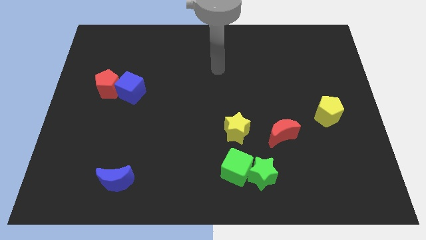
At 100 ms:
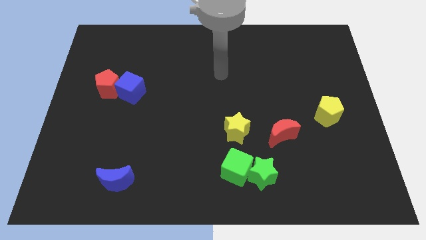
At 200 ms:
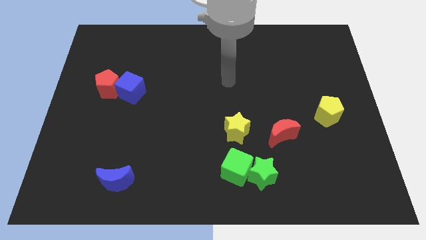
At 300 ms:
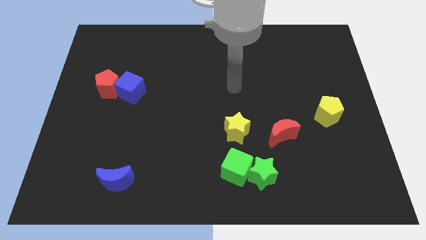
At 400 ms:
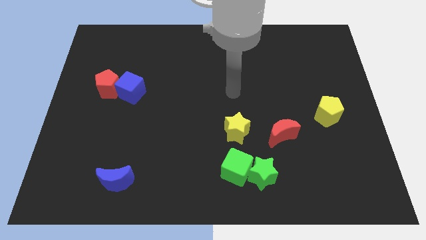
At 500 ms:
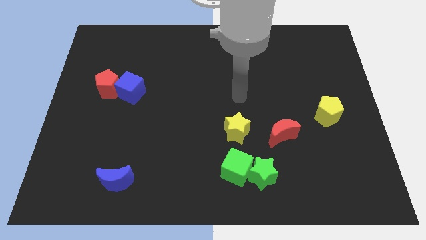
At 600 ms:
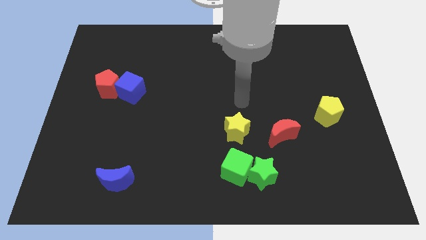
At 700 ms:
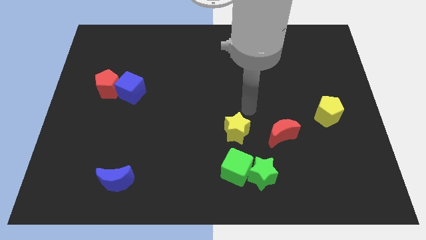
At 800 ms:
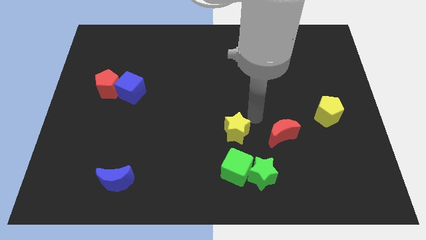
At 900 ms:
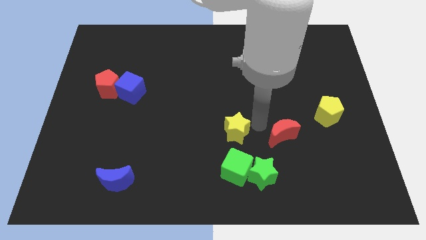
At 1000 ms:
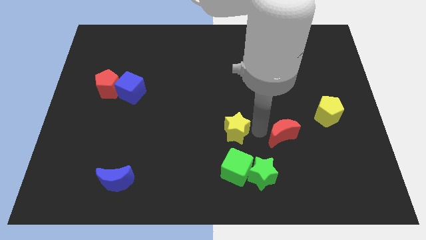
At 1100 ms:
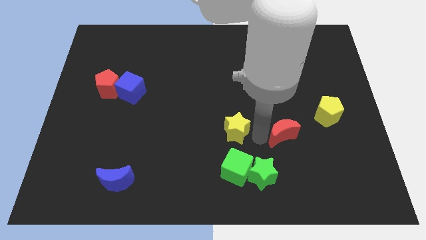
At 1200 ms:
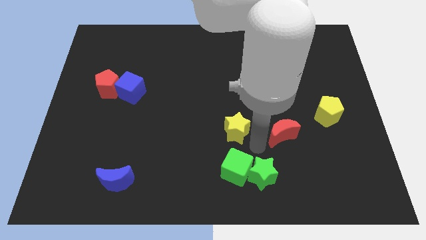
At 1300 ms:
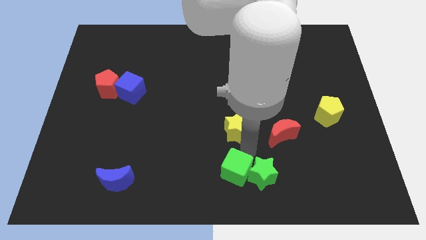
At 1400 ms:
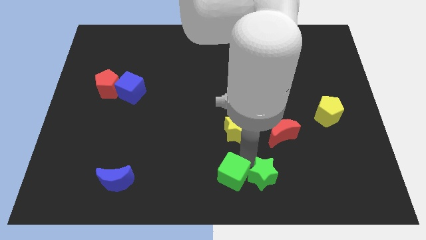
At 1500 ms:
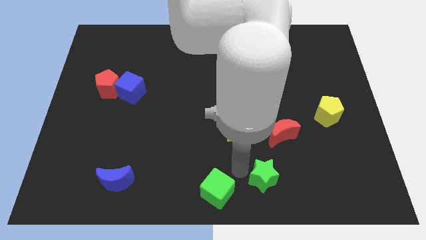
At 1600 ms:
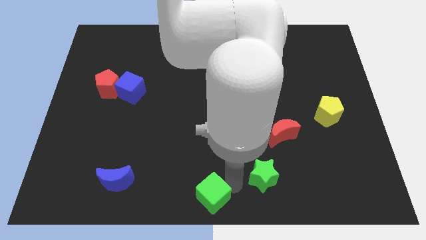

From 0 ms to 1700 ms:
move the green star away from the green cube

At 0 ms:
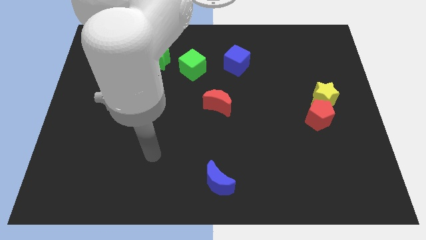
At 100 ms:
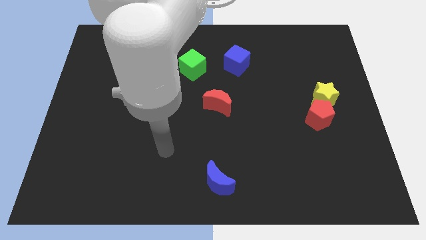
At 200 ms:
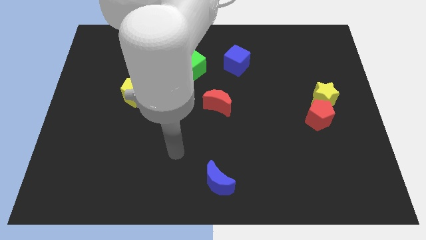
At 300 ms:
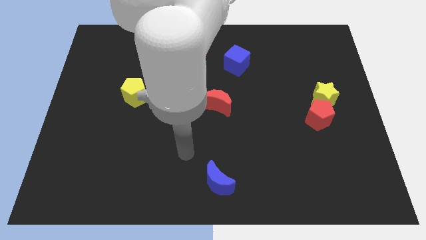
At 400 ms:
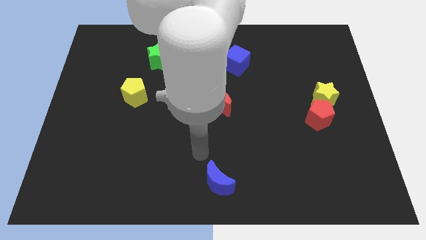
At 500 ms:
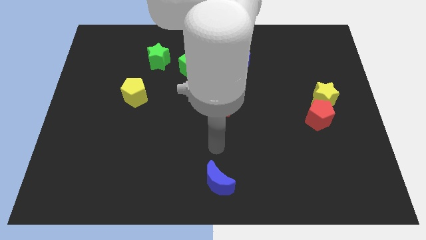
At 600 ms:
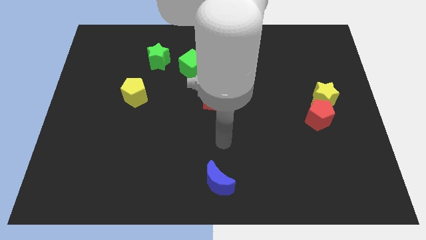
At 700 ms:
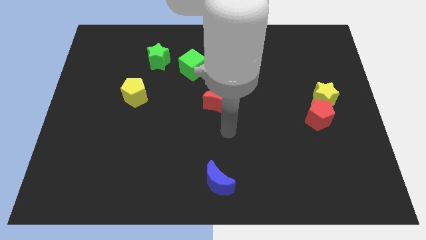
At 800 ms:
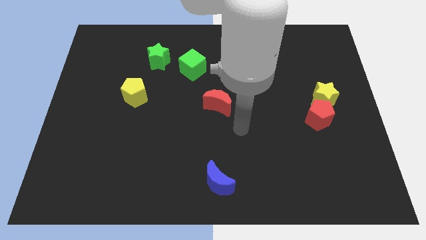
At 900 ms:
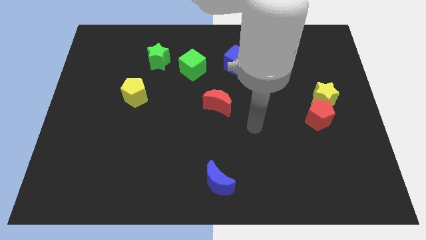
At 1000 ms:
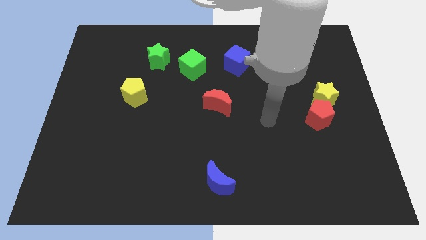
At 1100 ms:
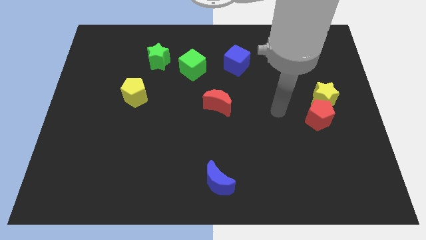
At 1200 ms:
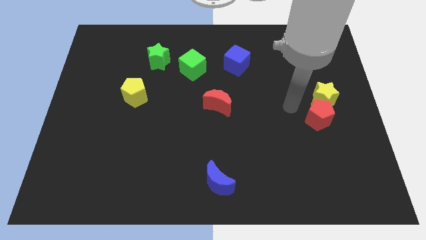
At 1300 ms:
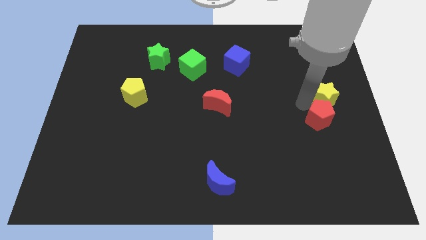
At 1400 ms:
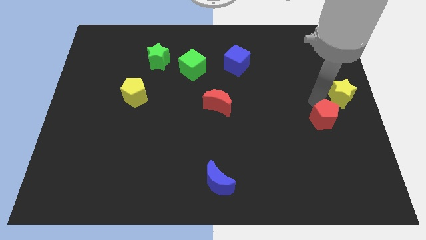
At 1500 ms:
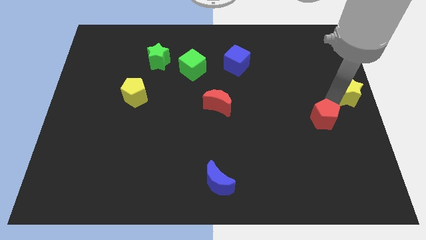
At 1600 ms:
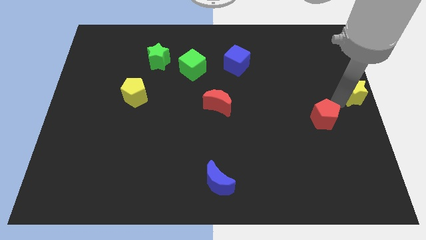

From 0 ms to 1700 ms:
move the red pentagon away from the yellow star

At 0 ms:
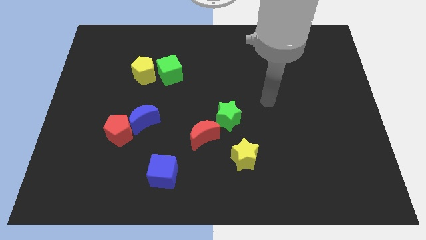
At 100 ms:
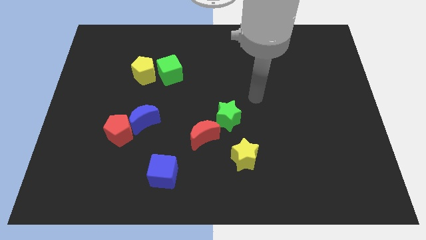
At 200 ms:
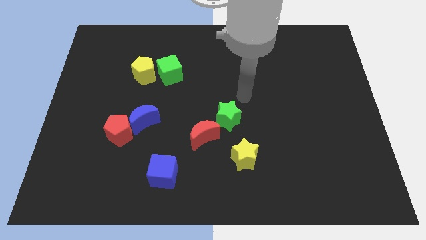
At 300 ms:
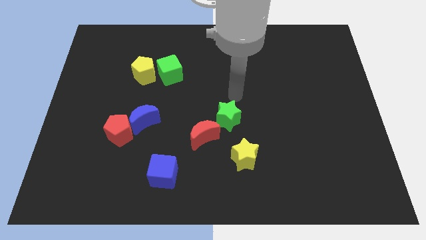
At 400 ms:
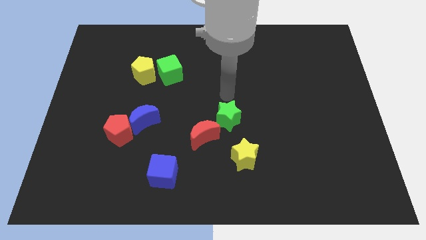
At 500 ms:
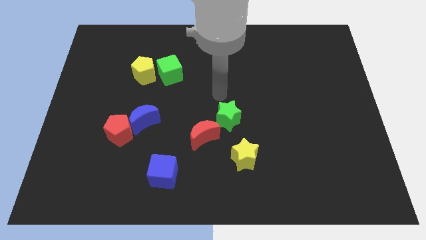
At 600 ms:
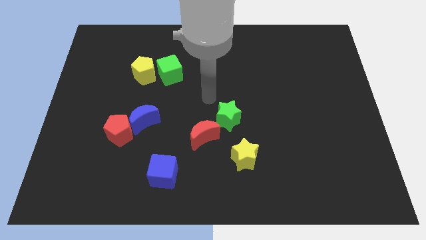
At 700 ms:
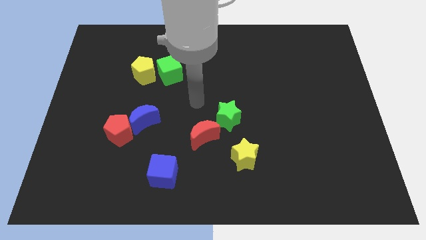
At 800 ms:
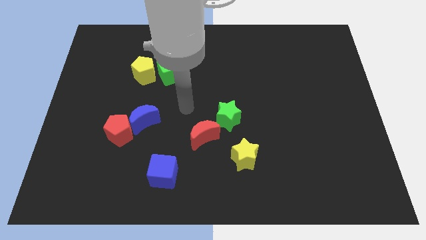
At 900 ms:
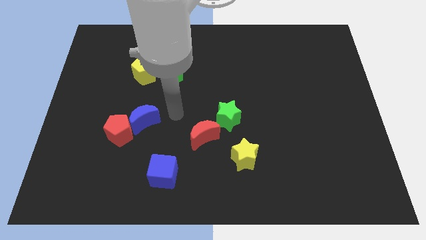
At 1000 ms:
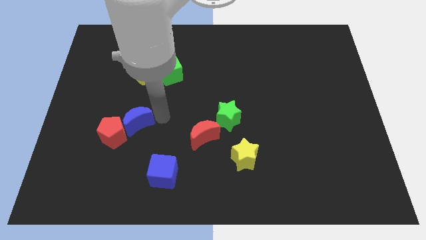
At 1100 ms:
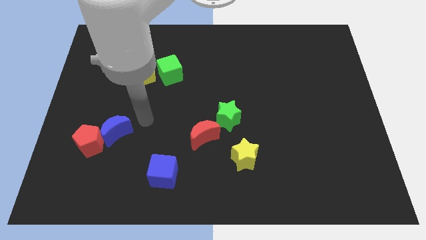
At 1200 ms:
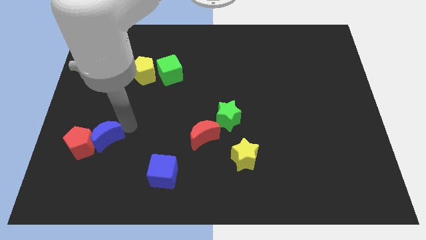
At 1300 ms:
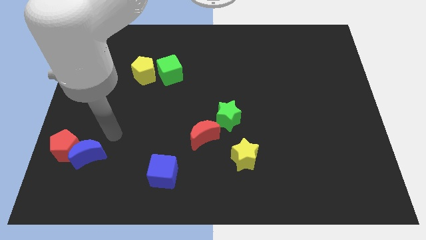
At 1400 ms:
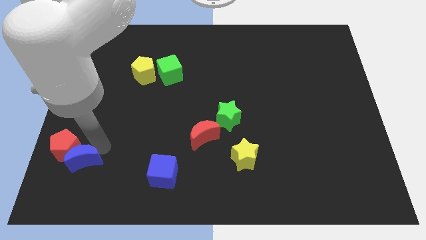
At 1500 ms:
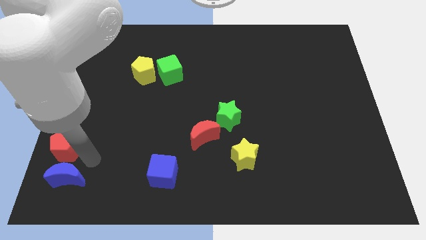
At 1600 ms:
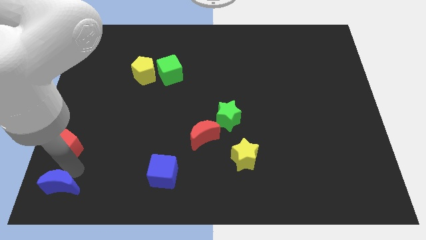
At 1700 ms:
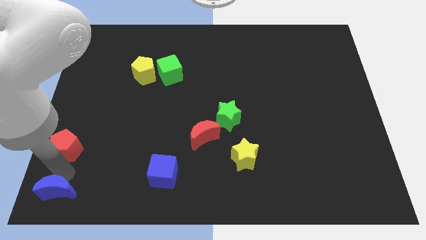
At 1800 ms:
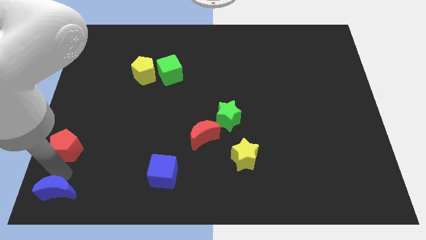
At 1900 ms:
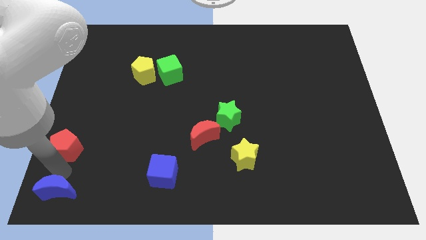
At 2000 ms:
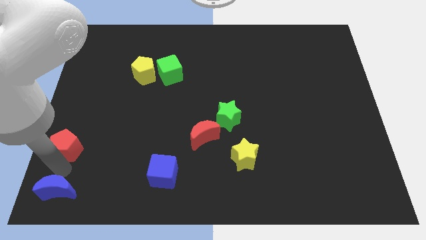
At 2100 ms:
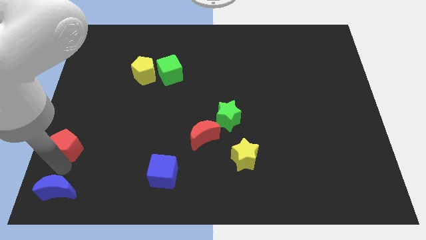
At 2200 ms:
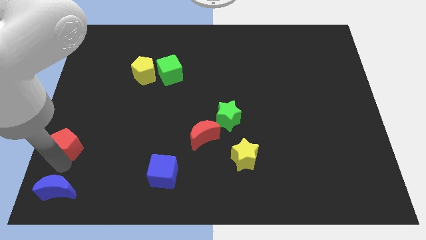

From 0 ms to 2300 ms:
separate the red pentagon from the blue moon

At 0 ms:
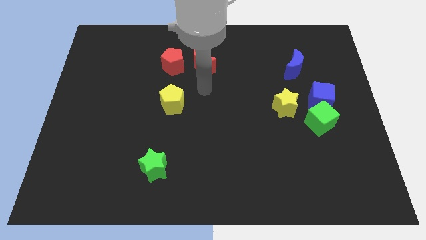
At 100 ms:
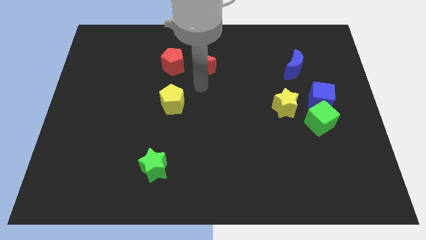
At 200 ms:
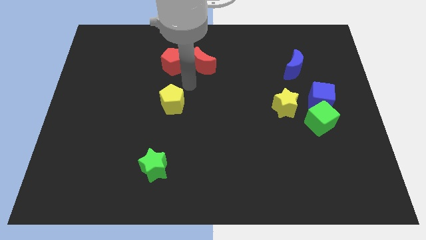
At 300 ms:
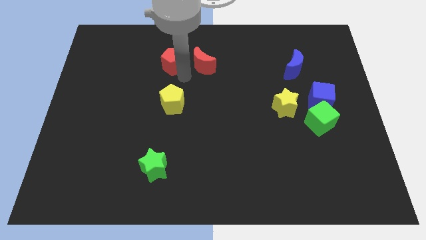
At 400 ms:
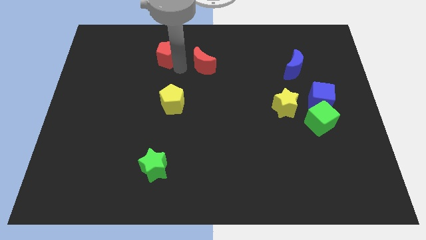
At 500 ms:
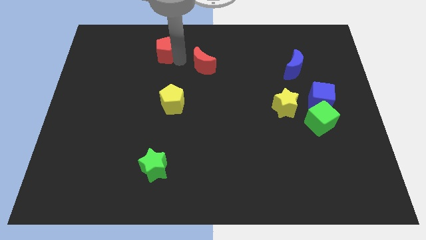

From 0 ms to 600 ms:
separate the red moon from the red pentagon

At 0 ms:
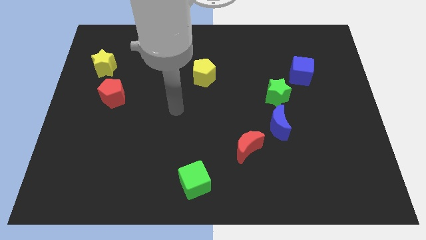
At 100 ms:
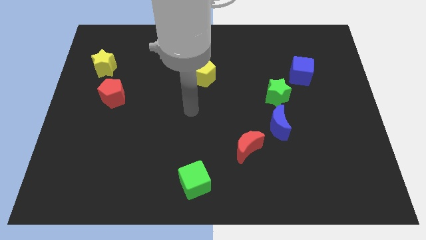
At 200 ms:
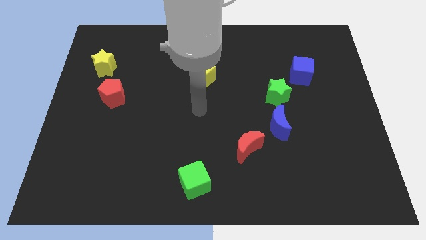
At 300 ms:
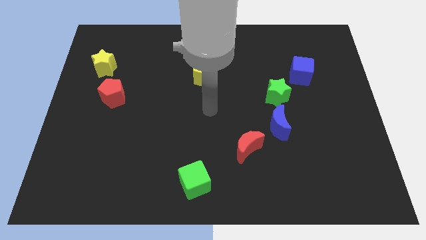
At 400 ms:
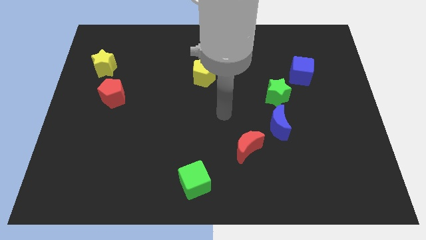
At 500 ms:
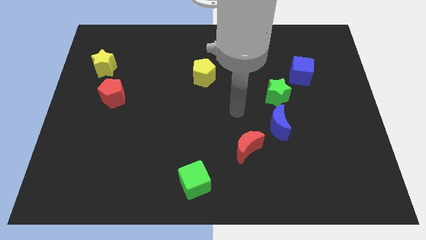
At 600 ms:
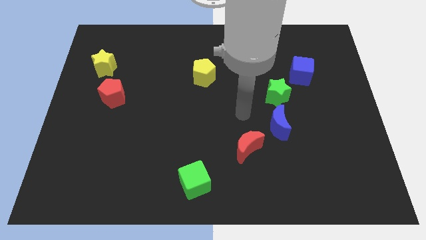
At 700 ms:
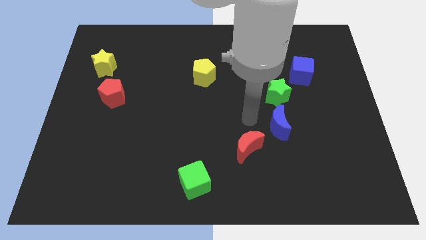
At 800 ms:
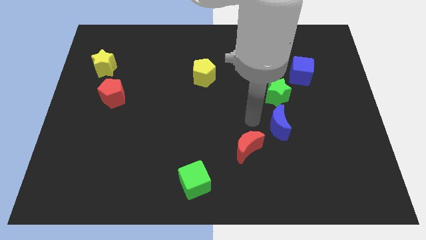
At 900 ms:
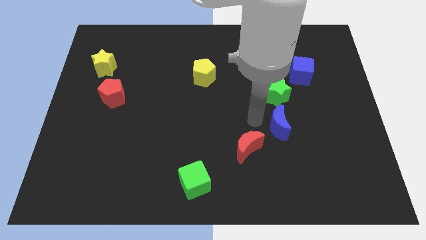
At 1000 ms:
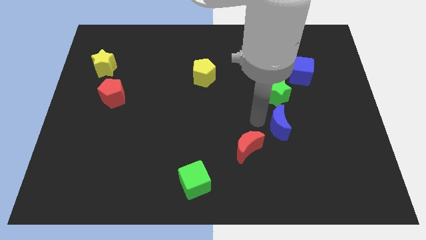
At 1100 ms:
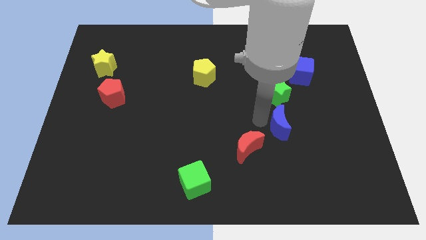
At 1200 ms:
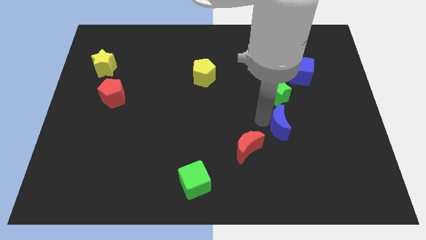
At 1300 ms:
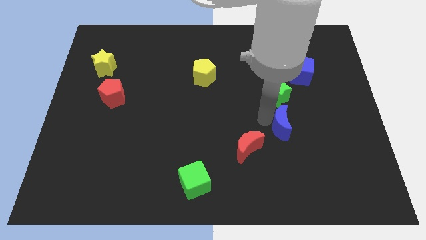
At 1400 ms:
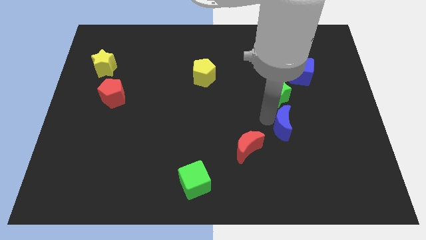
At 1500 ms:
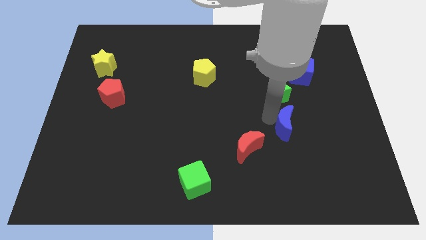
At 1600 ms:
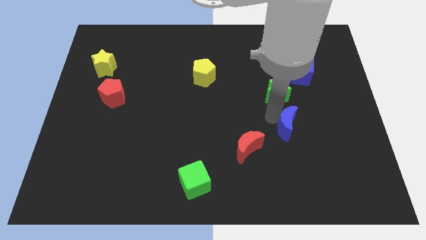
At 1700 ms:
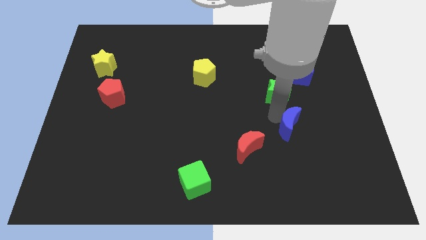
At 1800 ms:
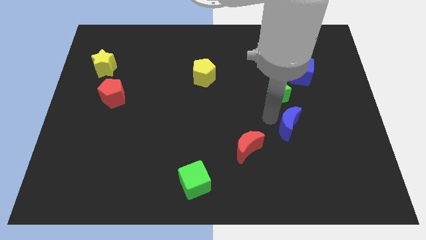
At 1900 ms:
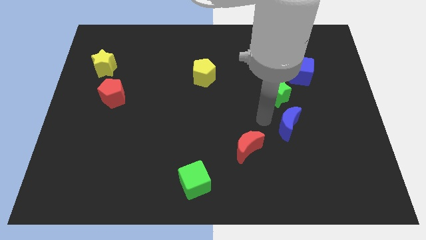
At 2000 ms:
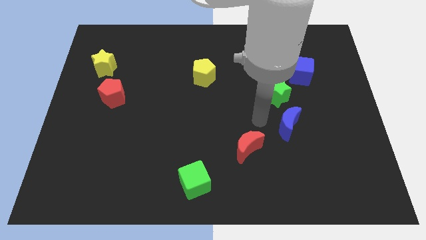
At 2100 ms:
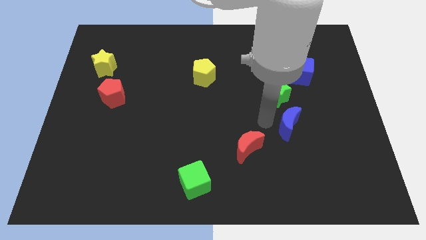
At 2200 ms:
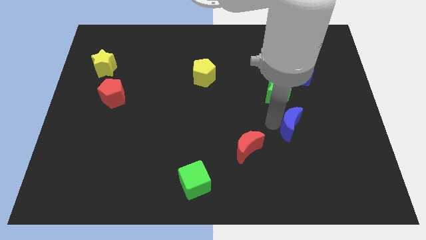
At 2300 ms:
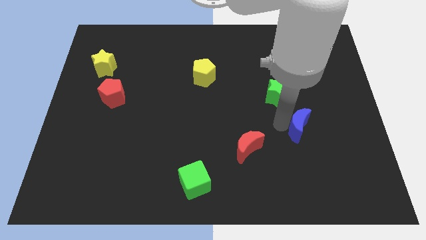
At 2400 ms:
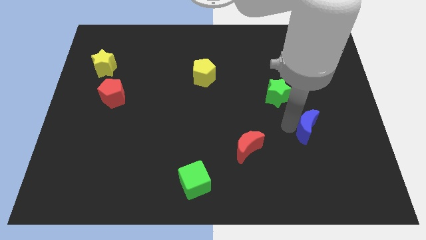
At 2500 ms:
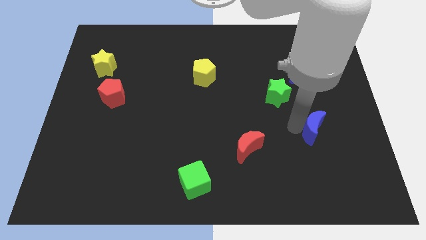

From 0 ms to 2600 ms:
separate the blue moon from the green star and red moon

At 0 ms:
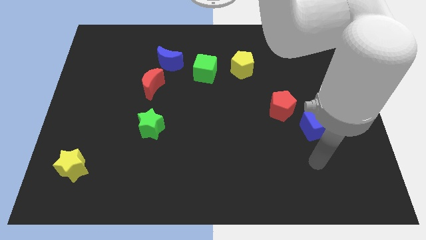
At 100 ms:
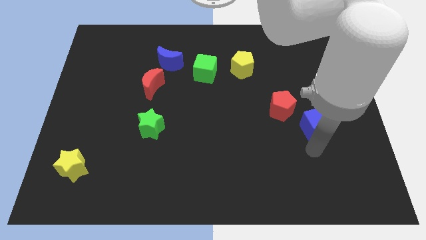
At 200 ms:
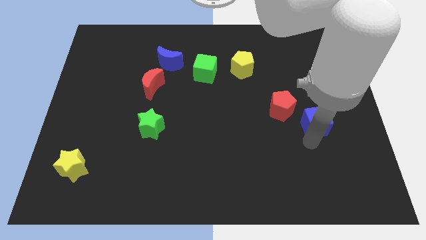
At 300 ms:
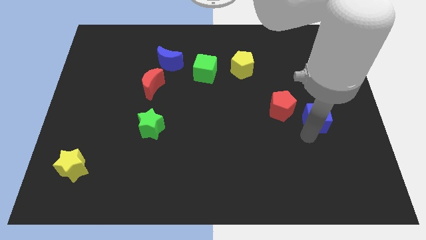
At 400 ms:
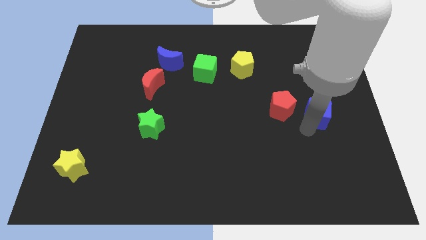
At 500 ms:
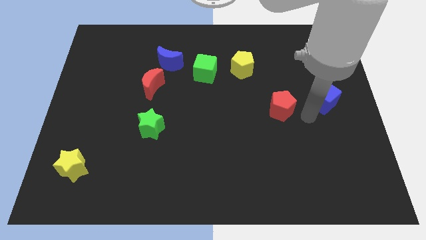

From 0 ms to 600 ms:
move the red pentagon away from the blue cube
